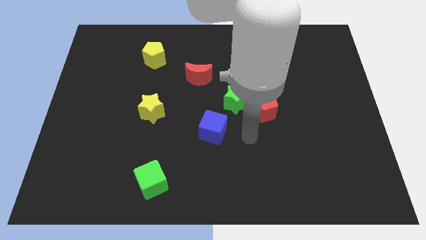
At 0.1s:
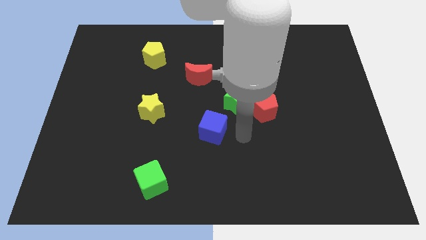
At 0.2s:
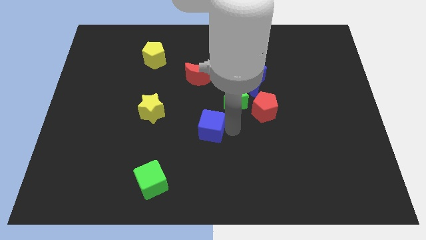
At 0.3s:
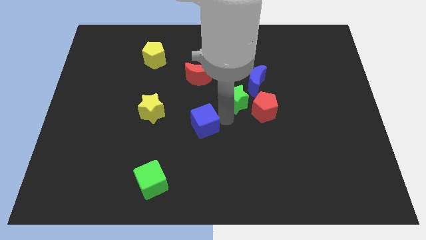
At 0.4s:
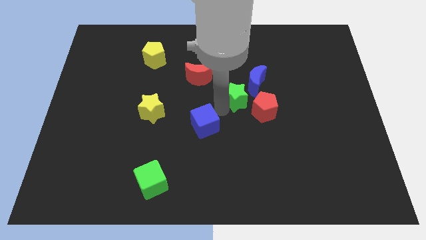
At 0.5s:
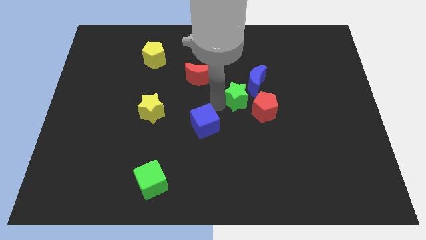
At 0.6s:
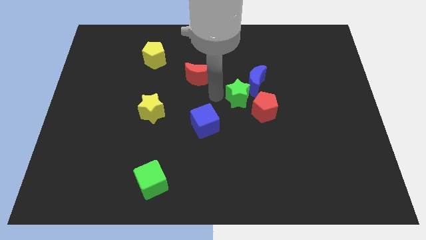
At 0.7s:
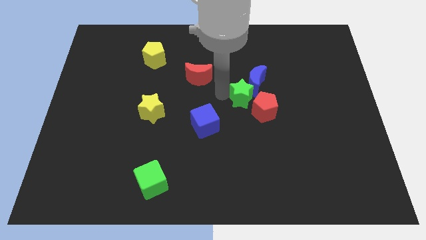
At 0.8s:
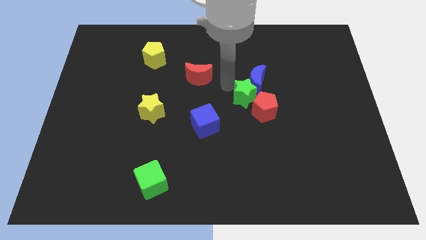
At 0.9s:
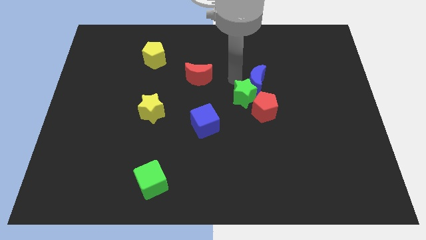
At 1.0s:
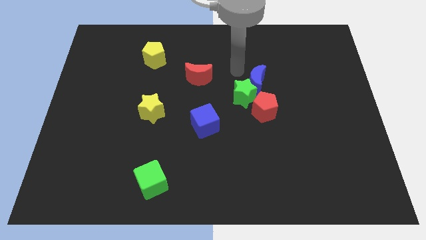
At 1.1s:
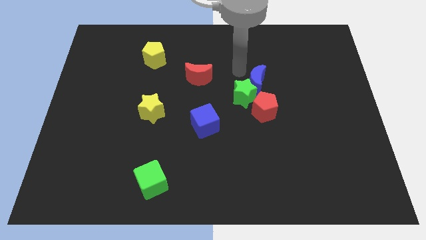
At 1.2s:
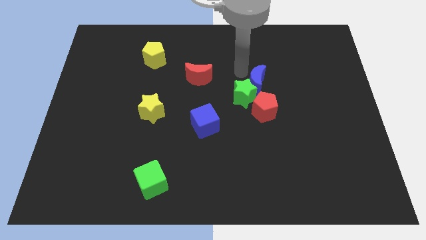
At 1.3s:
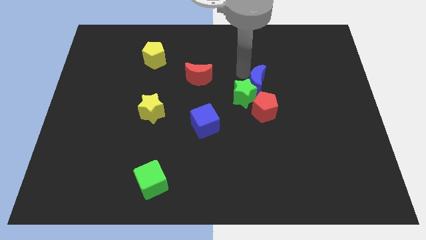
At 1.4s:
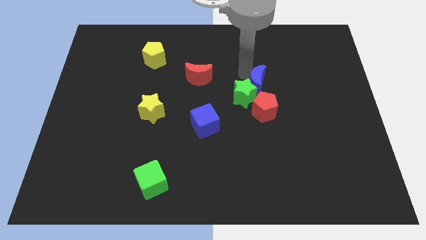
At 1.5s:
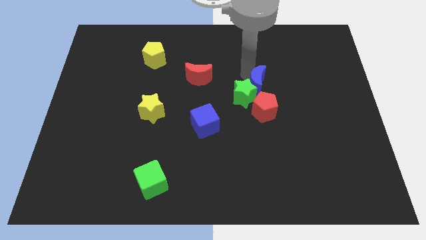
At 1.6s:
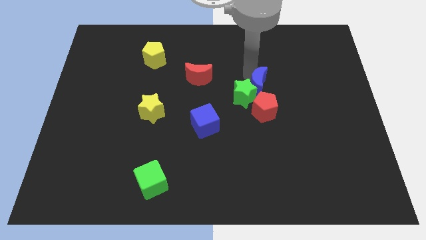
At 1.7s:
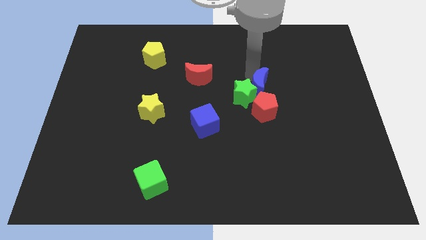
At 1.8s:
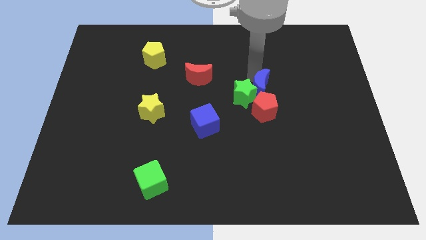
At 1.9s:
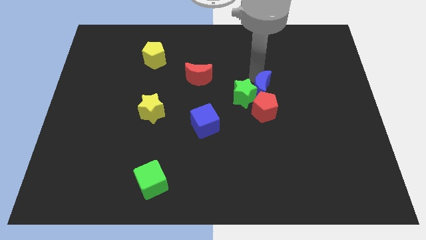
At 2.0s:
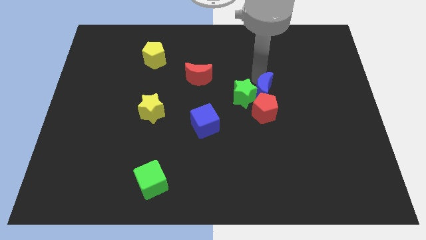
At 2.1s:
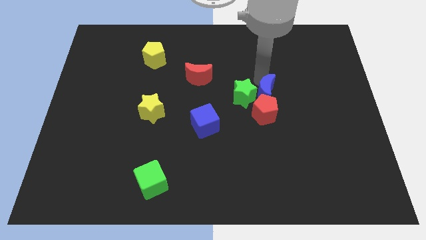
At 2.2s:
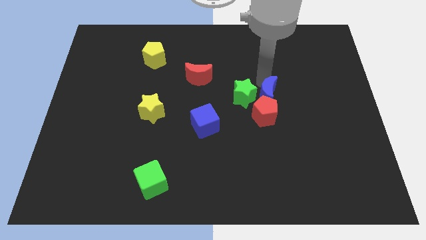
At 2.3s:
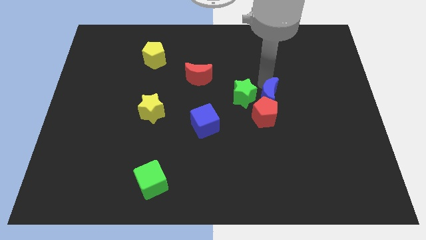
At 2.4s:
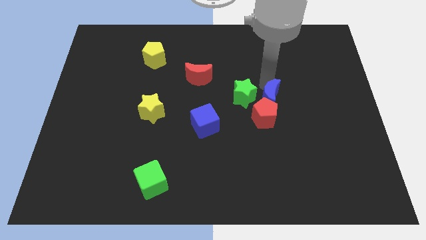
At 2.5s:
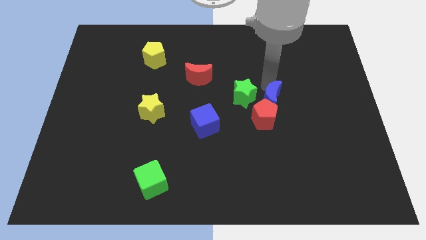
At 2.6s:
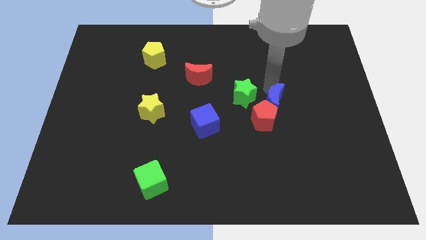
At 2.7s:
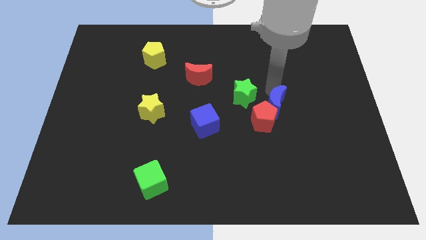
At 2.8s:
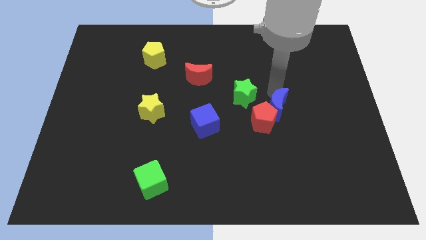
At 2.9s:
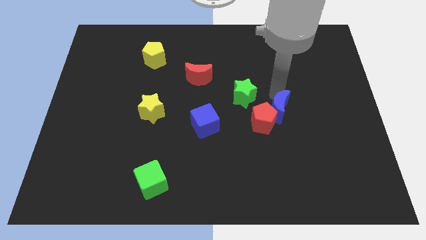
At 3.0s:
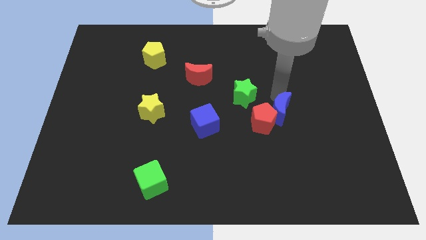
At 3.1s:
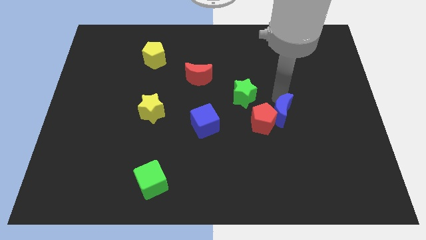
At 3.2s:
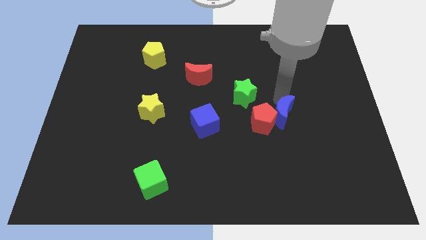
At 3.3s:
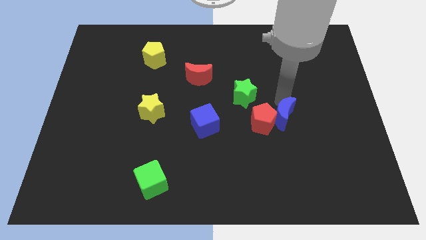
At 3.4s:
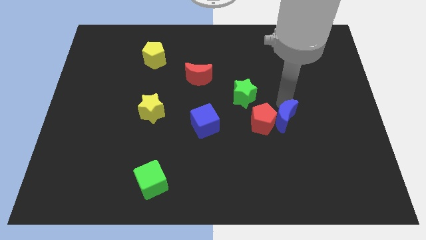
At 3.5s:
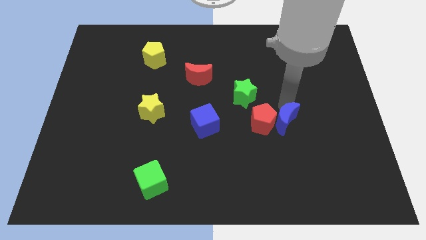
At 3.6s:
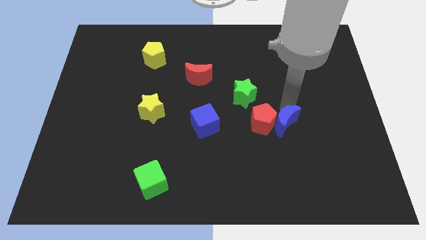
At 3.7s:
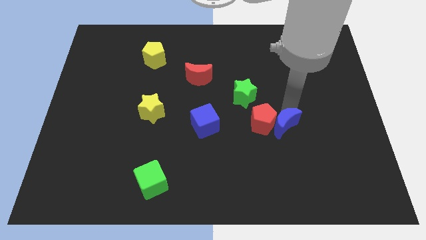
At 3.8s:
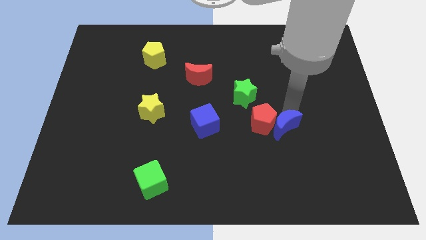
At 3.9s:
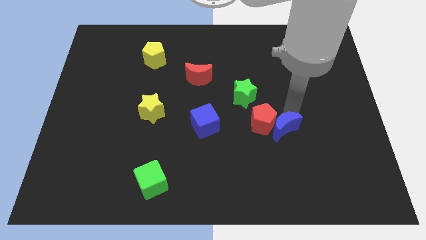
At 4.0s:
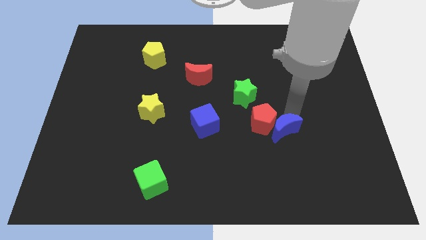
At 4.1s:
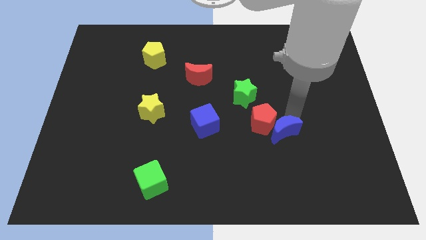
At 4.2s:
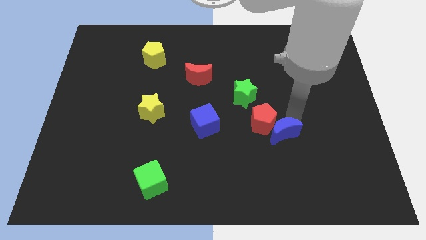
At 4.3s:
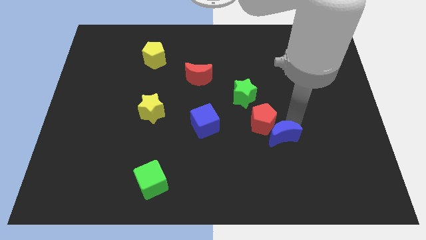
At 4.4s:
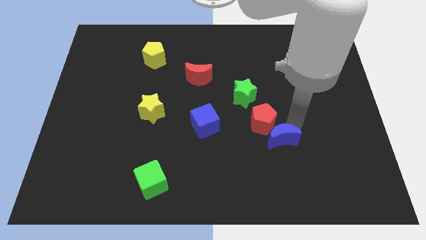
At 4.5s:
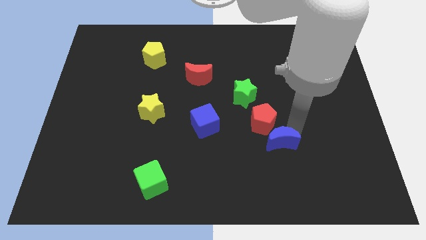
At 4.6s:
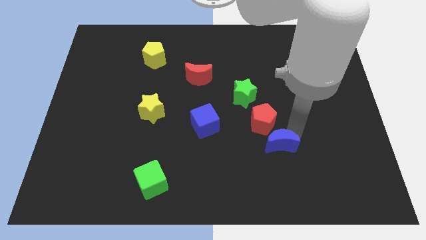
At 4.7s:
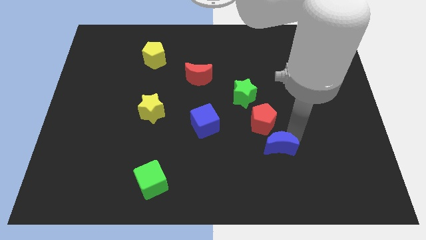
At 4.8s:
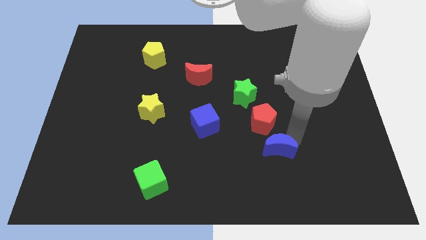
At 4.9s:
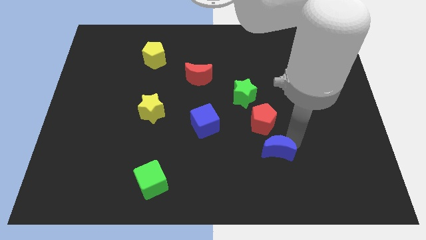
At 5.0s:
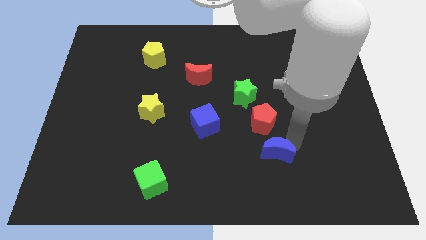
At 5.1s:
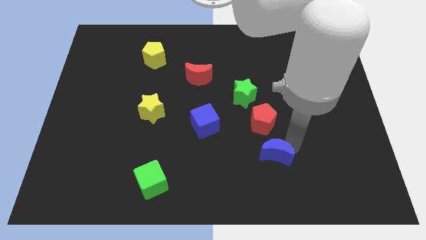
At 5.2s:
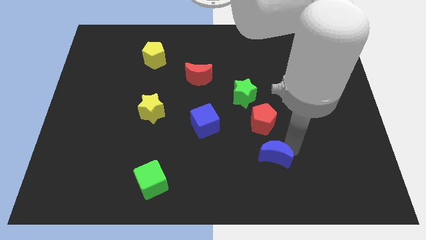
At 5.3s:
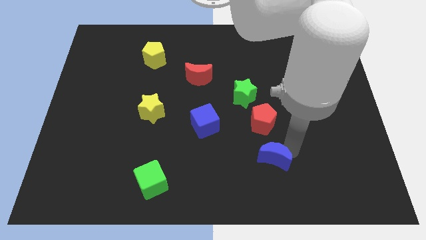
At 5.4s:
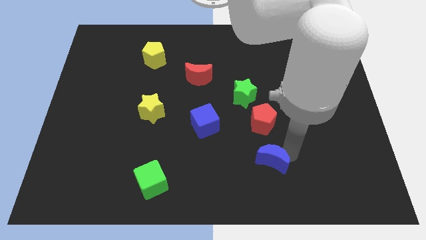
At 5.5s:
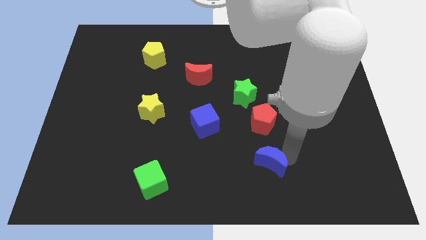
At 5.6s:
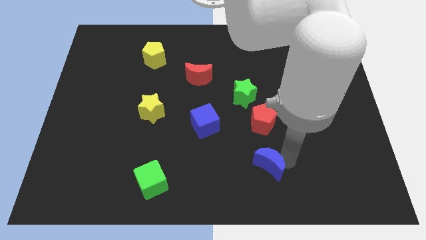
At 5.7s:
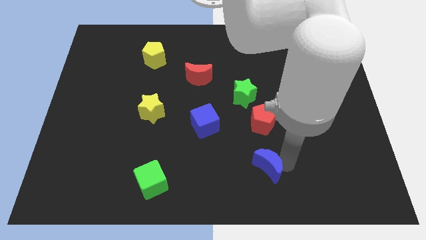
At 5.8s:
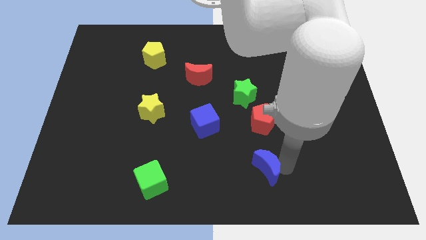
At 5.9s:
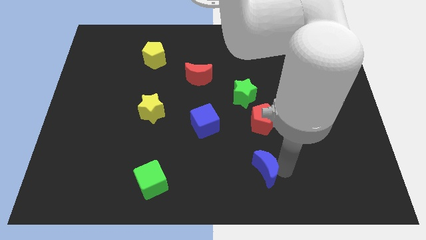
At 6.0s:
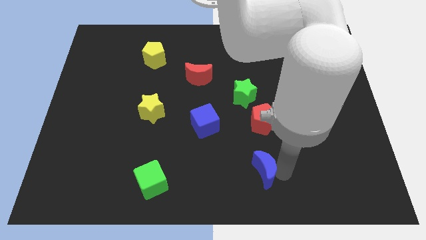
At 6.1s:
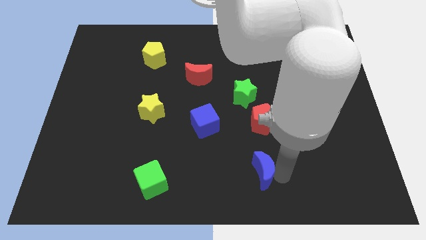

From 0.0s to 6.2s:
put the blue moon to the bottom side

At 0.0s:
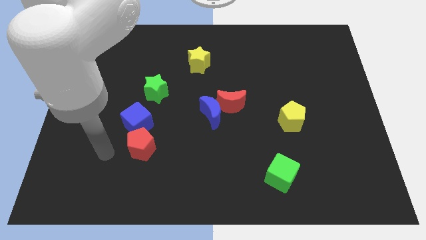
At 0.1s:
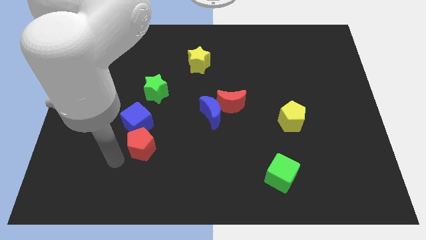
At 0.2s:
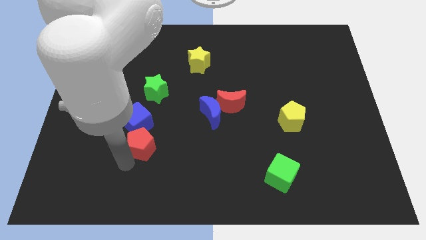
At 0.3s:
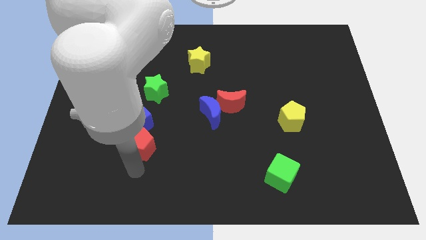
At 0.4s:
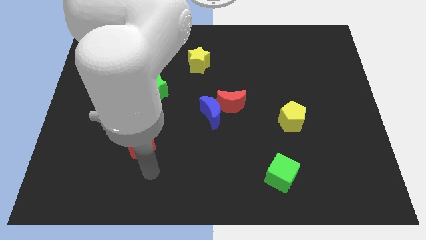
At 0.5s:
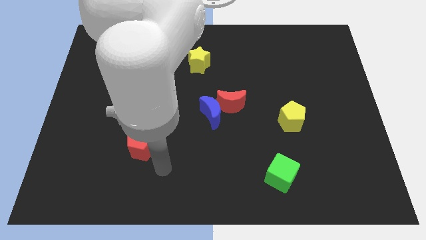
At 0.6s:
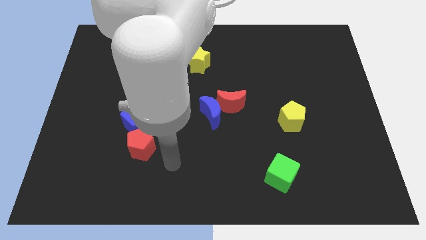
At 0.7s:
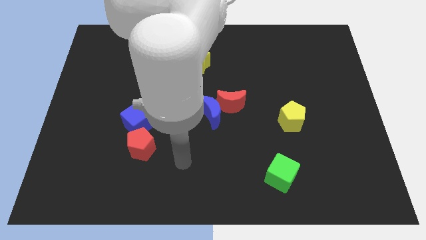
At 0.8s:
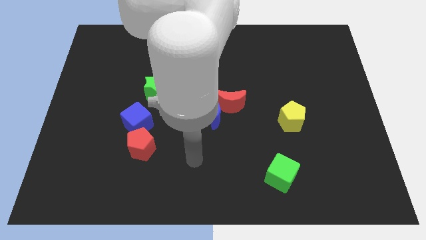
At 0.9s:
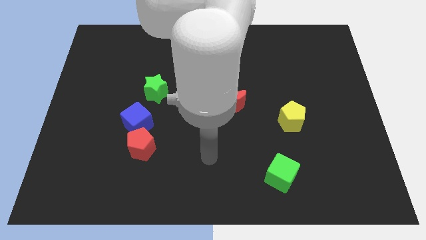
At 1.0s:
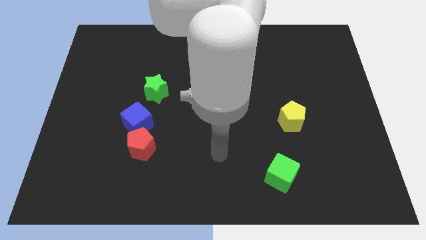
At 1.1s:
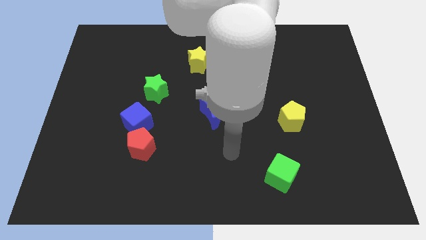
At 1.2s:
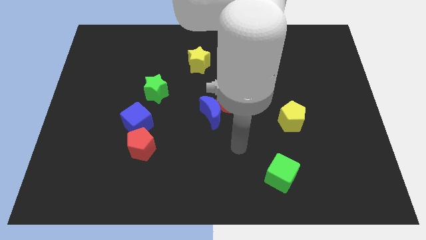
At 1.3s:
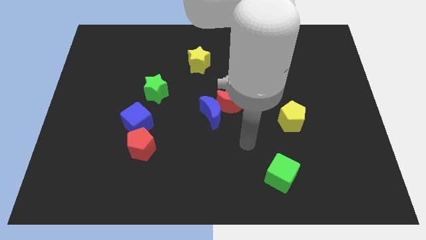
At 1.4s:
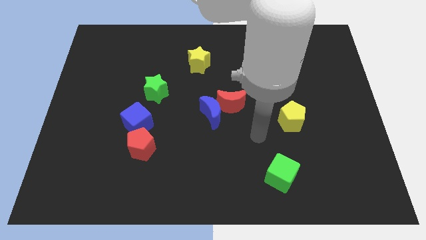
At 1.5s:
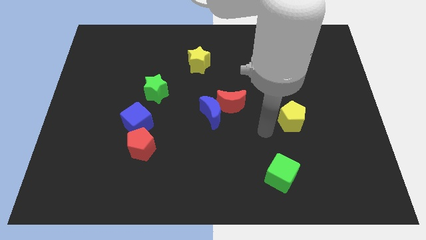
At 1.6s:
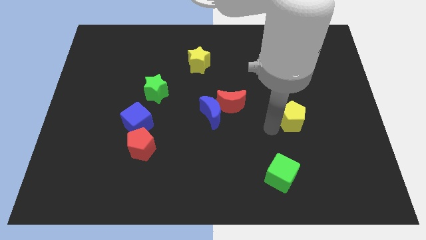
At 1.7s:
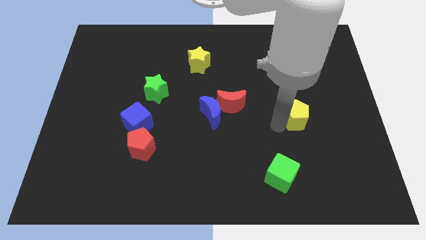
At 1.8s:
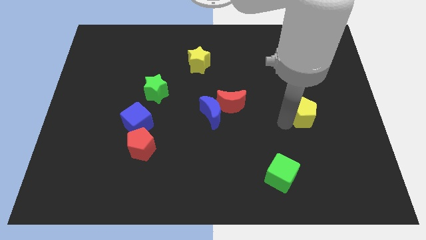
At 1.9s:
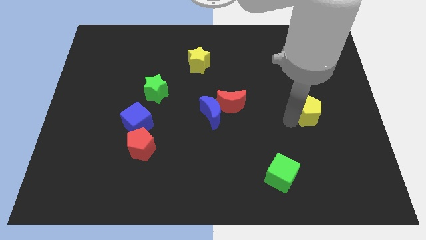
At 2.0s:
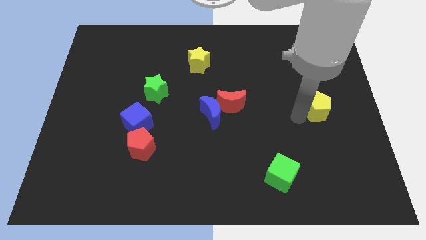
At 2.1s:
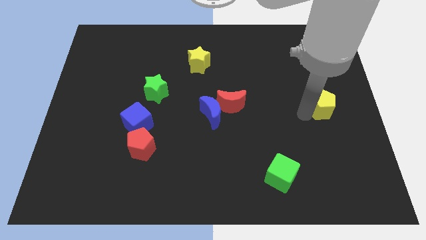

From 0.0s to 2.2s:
put the yellow pentagon to the center right
